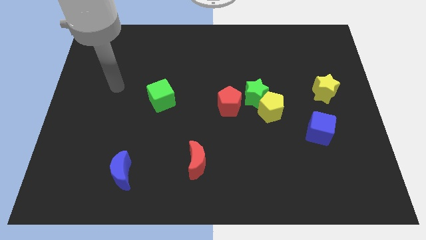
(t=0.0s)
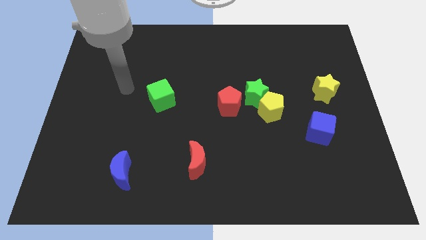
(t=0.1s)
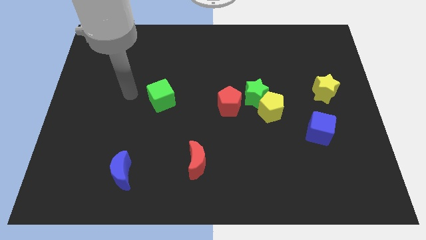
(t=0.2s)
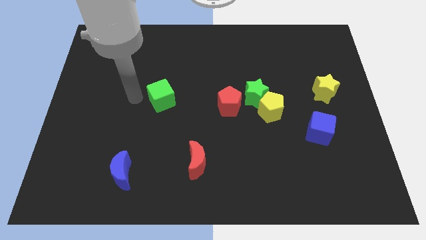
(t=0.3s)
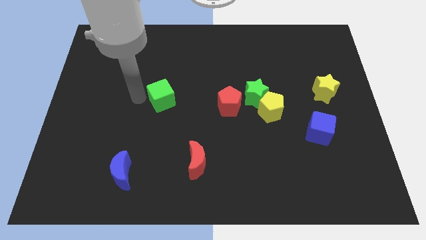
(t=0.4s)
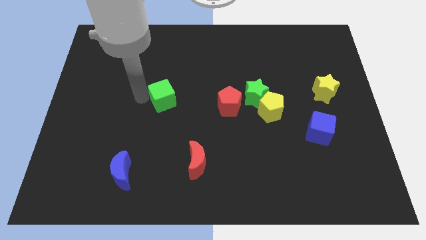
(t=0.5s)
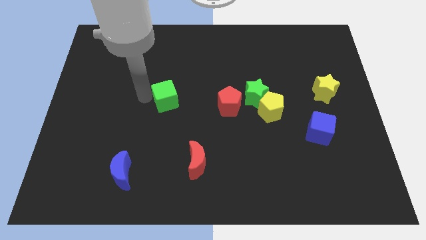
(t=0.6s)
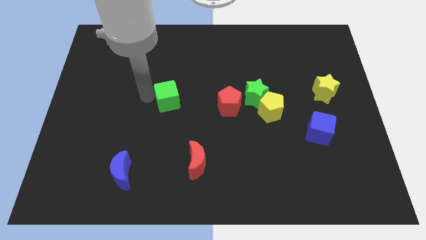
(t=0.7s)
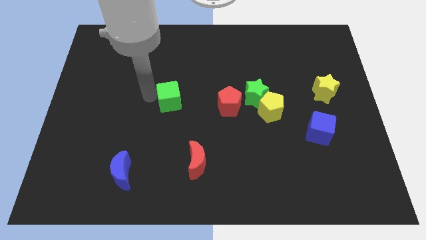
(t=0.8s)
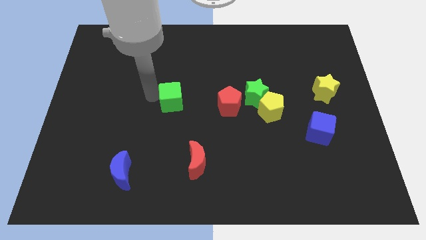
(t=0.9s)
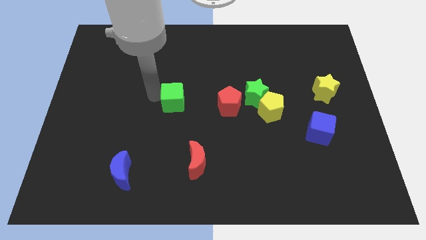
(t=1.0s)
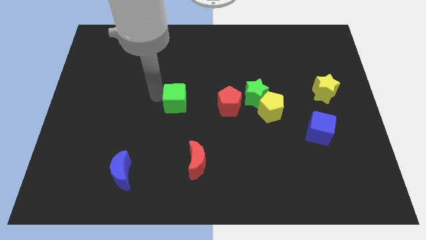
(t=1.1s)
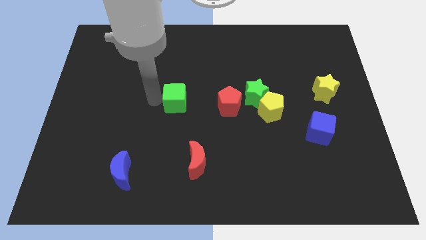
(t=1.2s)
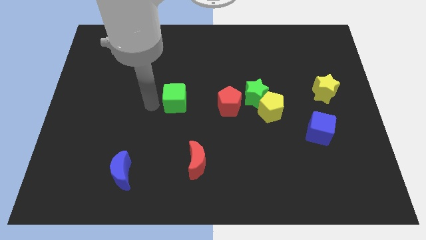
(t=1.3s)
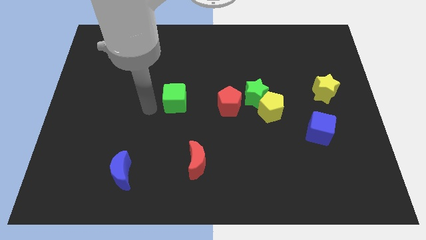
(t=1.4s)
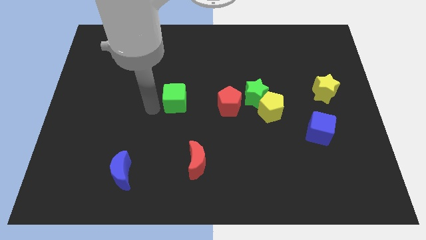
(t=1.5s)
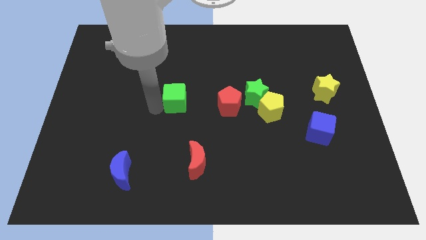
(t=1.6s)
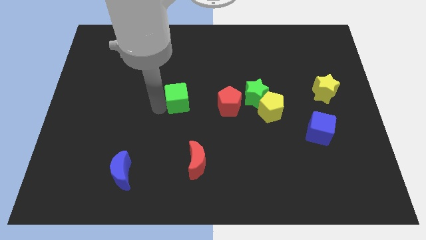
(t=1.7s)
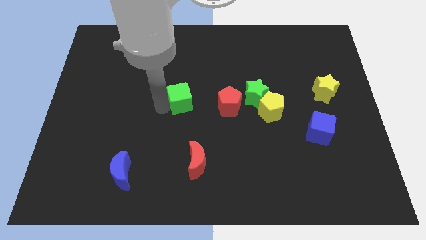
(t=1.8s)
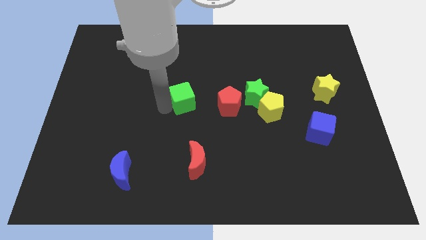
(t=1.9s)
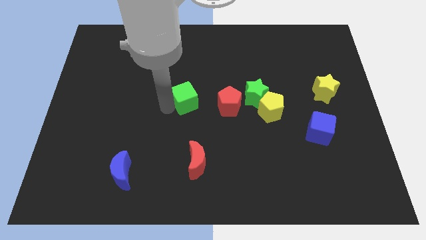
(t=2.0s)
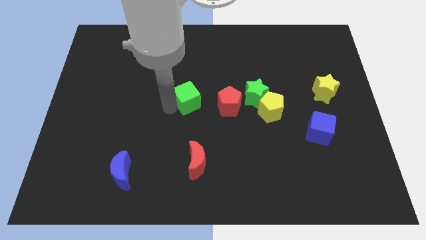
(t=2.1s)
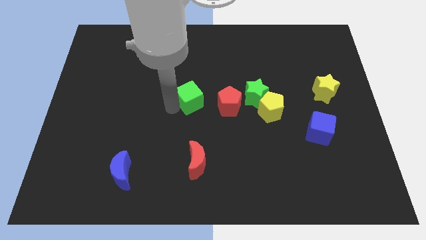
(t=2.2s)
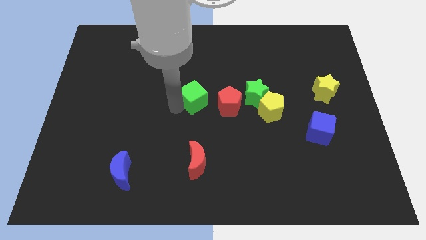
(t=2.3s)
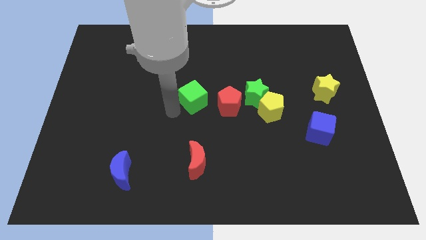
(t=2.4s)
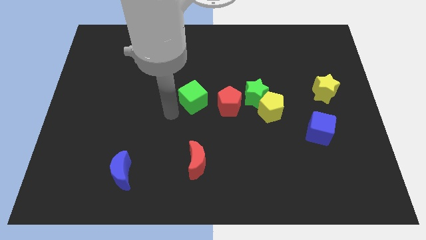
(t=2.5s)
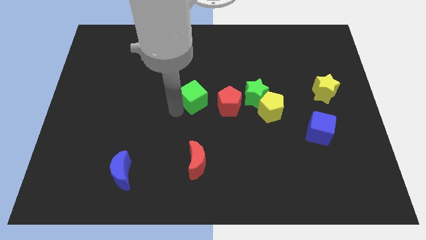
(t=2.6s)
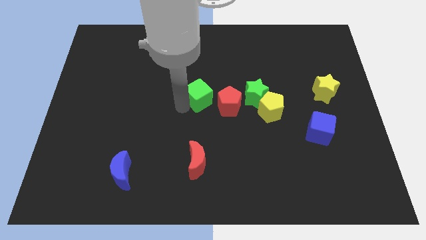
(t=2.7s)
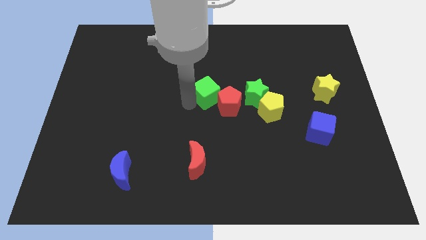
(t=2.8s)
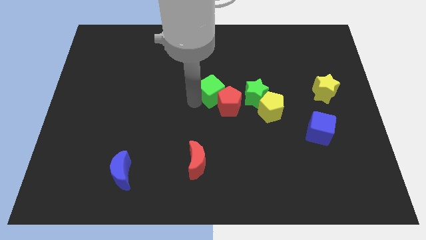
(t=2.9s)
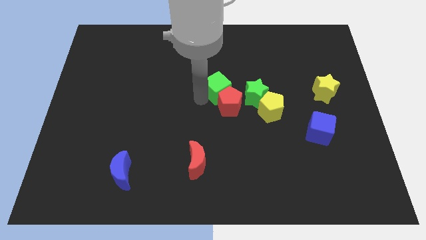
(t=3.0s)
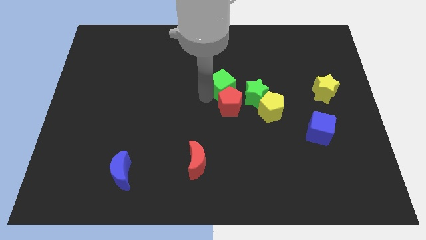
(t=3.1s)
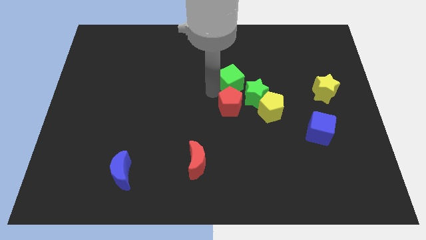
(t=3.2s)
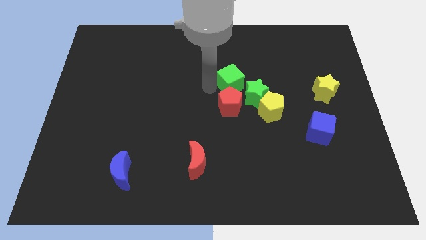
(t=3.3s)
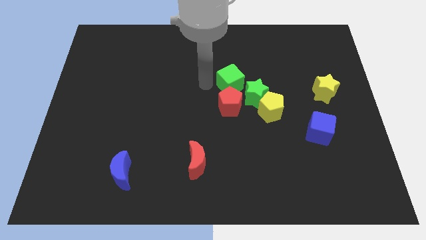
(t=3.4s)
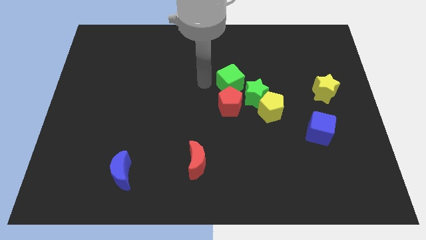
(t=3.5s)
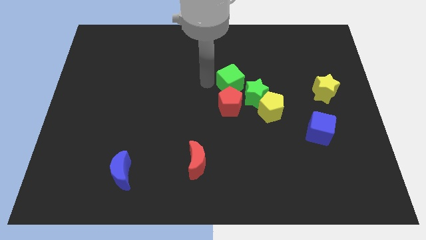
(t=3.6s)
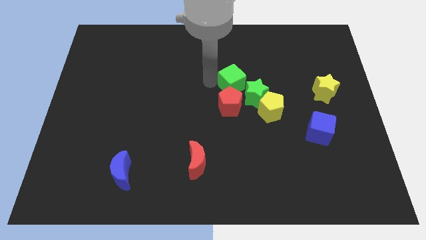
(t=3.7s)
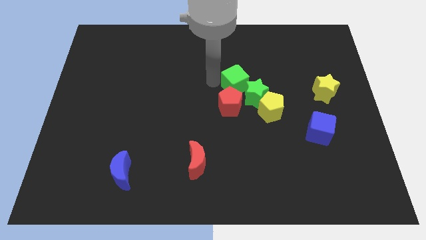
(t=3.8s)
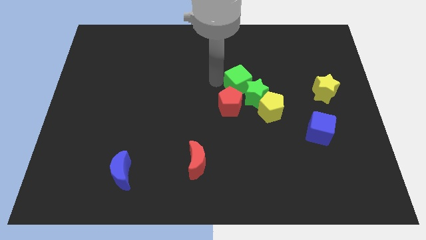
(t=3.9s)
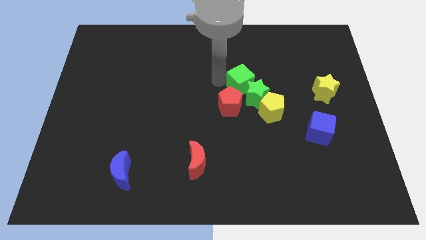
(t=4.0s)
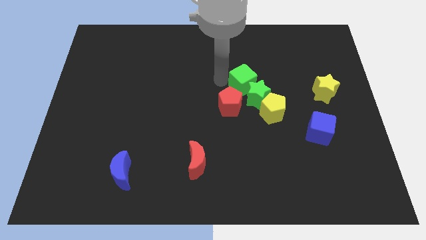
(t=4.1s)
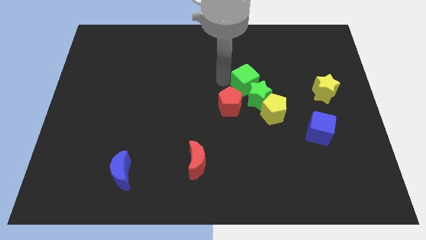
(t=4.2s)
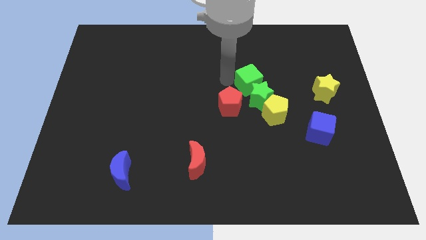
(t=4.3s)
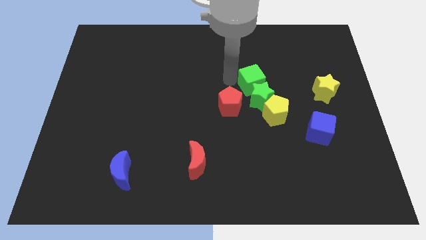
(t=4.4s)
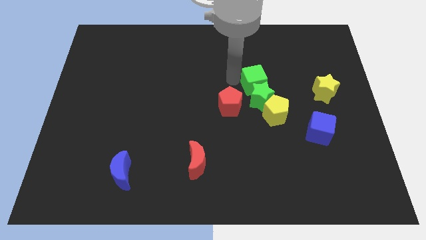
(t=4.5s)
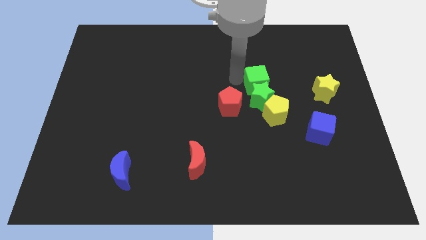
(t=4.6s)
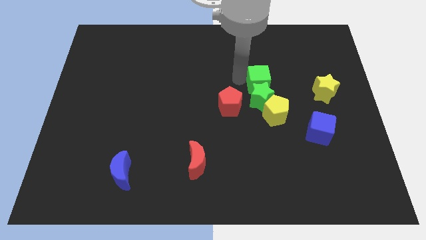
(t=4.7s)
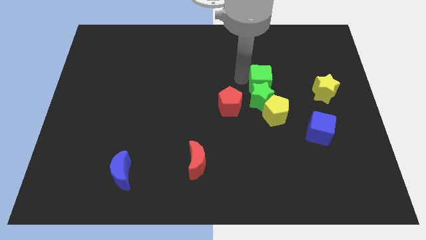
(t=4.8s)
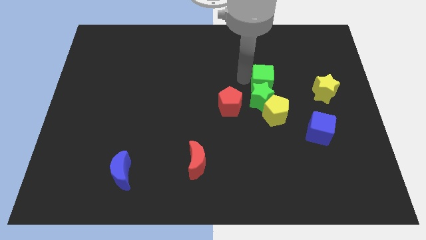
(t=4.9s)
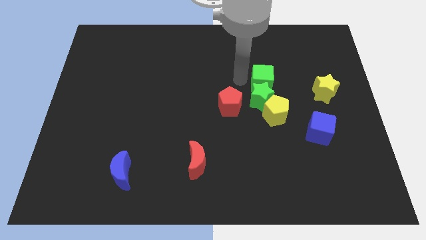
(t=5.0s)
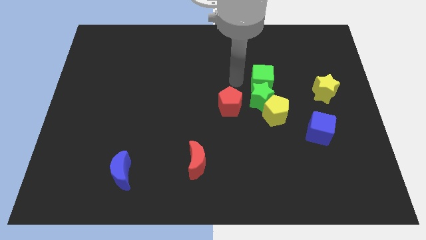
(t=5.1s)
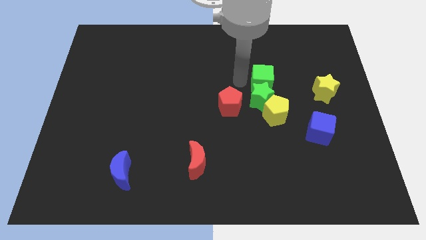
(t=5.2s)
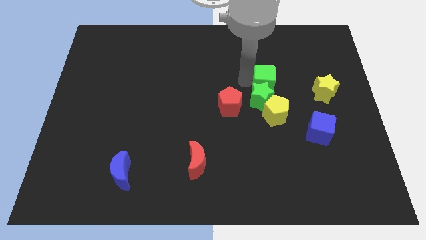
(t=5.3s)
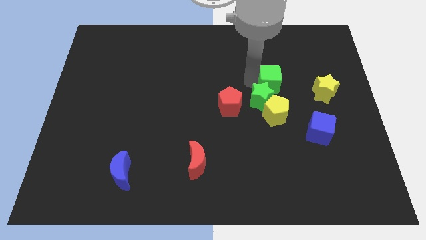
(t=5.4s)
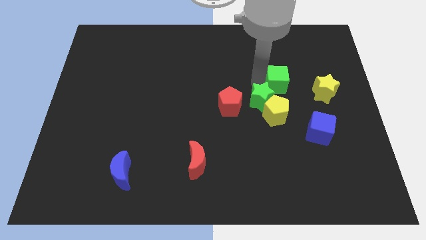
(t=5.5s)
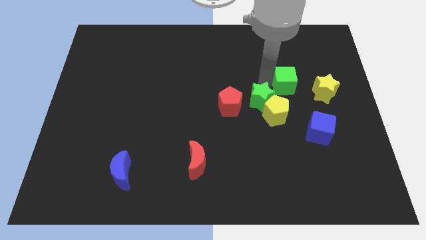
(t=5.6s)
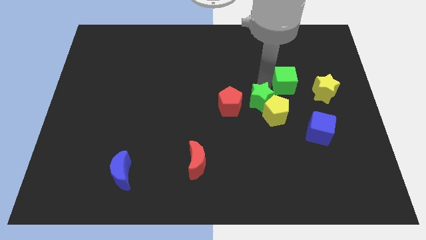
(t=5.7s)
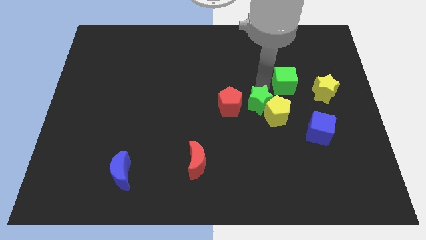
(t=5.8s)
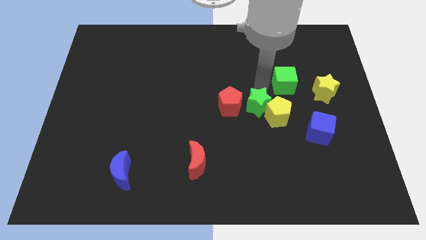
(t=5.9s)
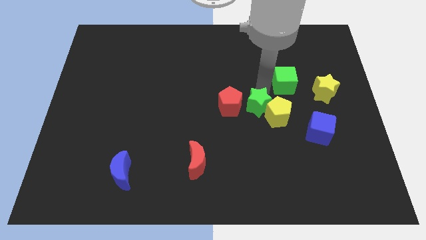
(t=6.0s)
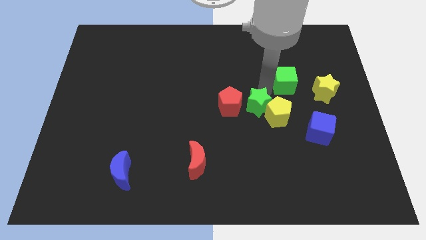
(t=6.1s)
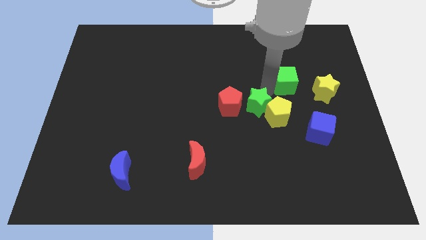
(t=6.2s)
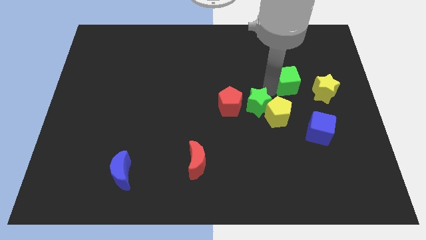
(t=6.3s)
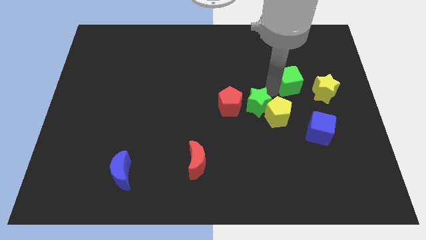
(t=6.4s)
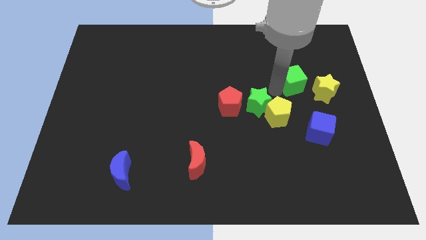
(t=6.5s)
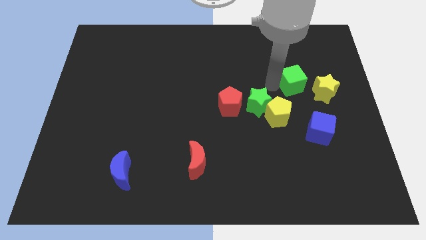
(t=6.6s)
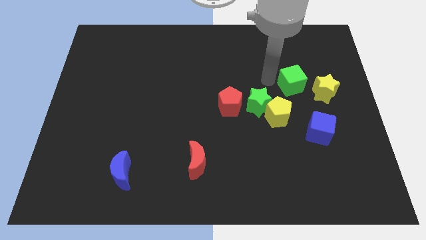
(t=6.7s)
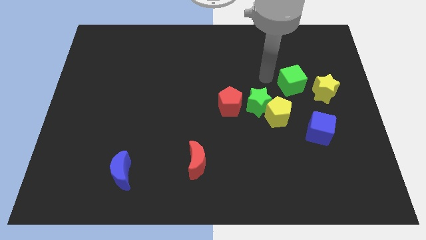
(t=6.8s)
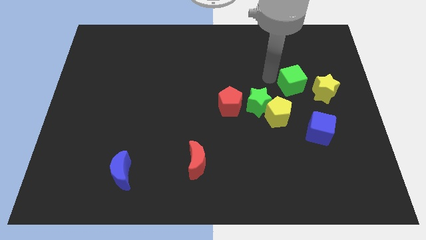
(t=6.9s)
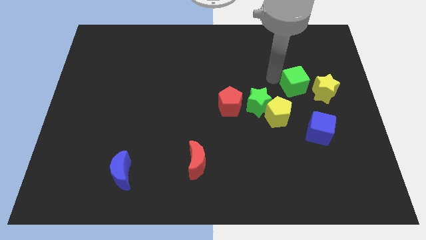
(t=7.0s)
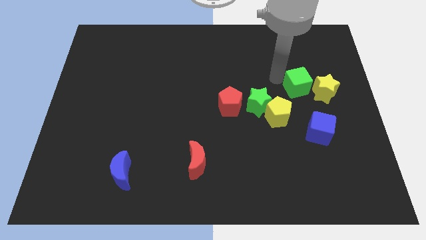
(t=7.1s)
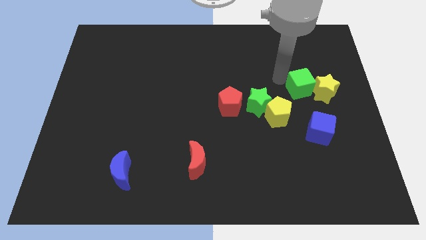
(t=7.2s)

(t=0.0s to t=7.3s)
move the green cube next to the yellow star

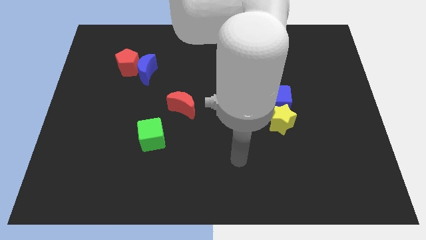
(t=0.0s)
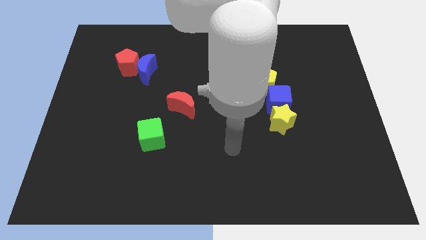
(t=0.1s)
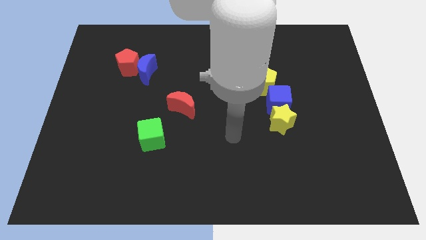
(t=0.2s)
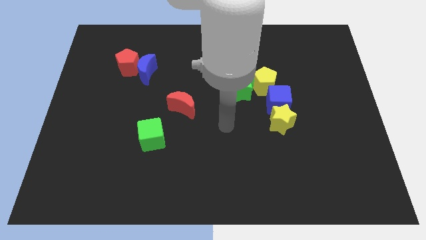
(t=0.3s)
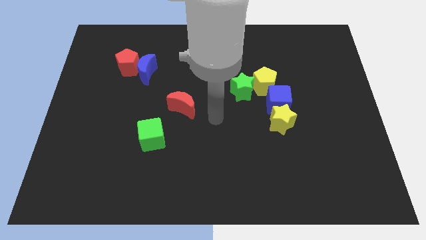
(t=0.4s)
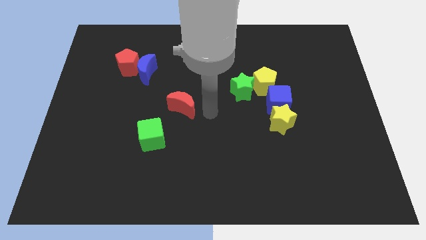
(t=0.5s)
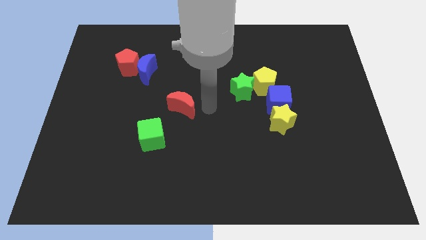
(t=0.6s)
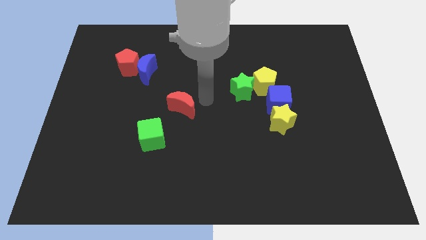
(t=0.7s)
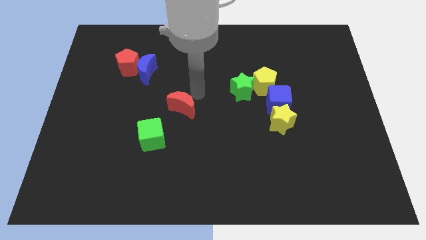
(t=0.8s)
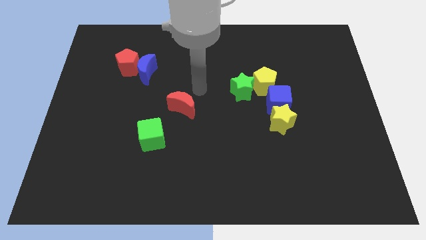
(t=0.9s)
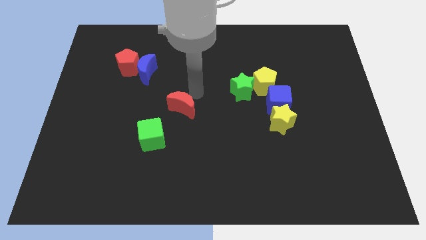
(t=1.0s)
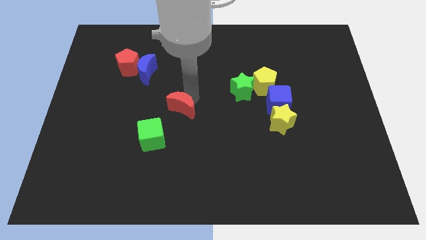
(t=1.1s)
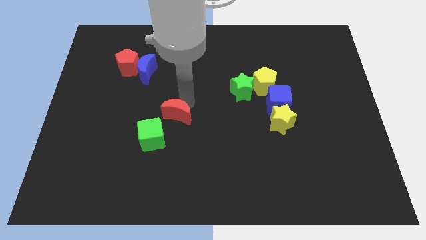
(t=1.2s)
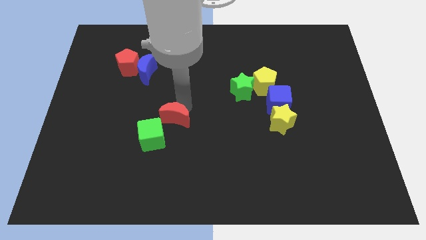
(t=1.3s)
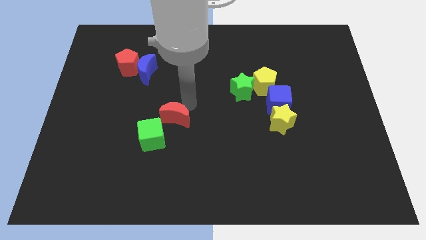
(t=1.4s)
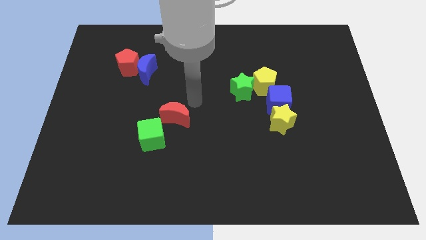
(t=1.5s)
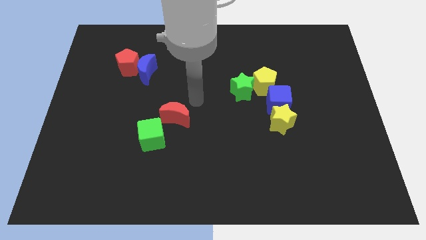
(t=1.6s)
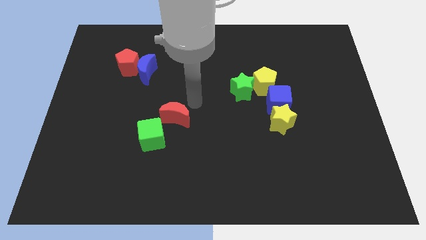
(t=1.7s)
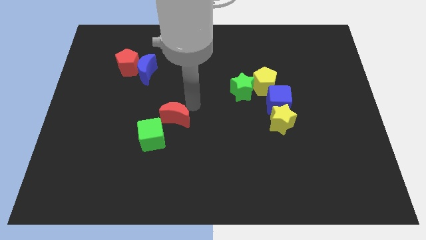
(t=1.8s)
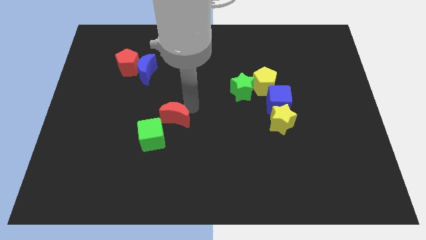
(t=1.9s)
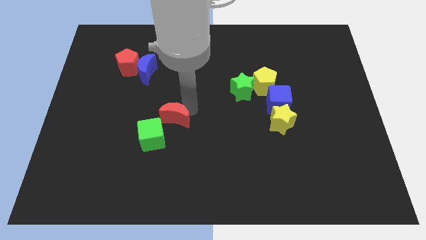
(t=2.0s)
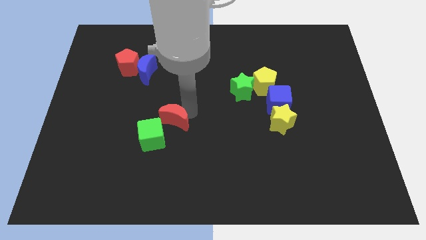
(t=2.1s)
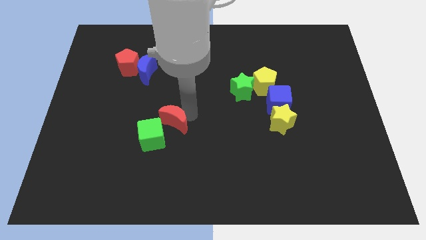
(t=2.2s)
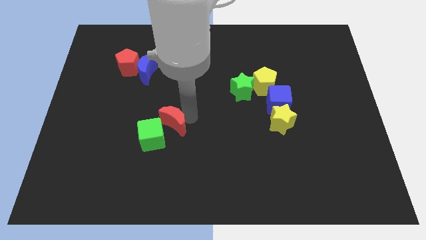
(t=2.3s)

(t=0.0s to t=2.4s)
push the red moon to the green cube
